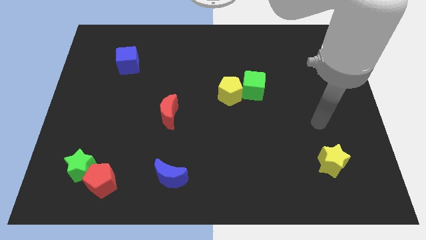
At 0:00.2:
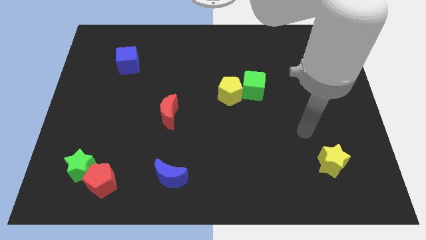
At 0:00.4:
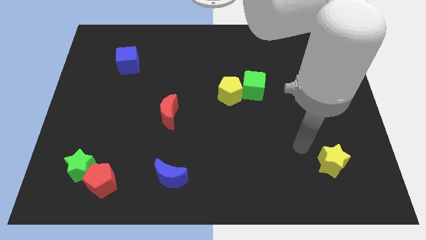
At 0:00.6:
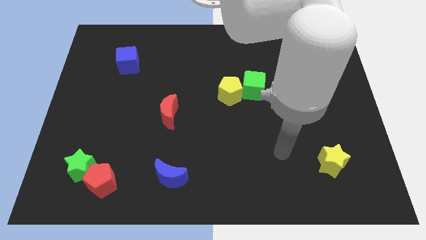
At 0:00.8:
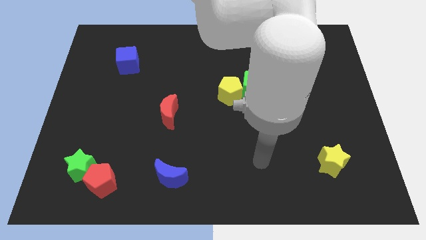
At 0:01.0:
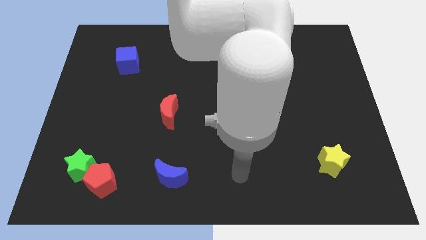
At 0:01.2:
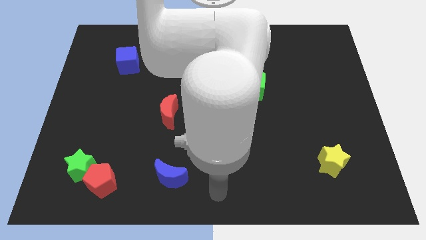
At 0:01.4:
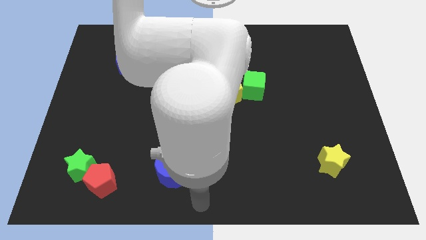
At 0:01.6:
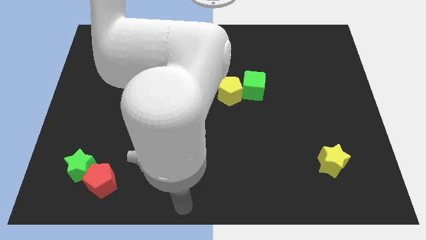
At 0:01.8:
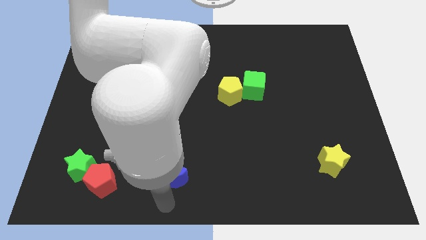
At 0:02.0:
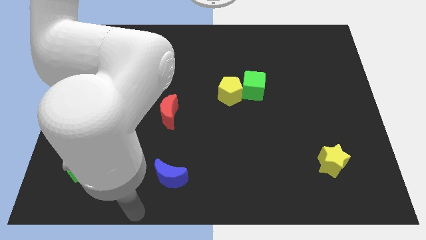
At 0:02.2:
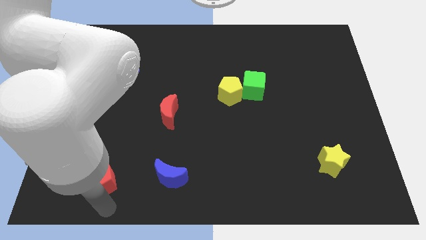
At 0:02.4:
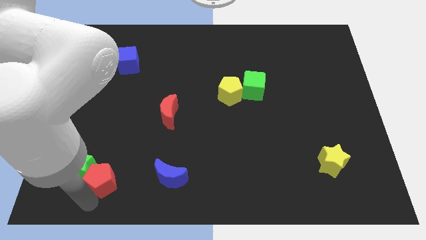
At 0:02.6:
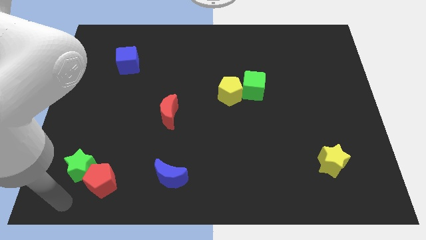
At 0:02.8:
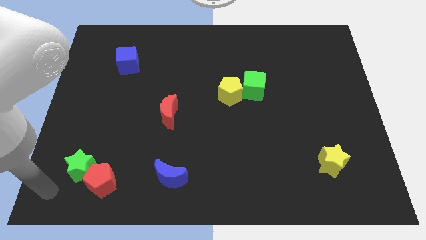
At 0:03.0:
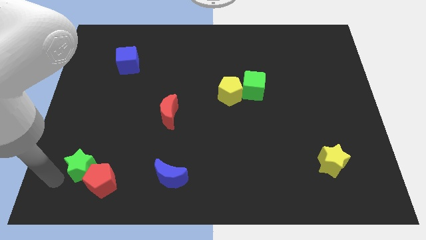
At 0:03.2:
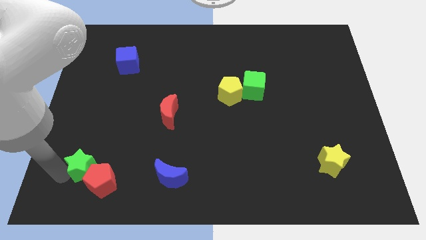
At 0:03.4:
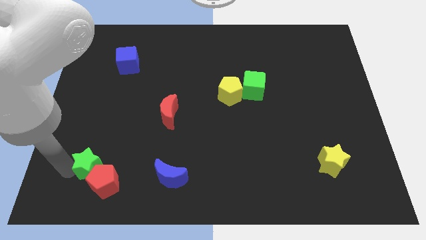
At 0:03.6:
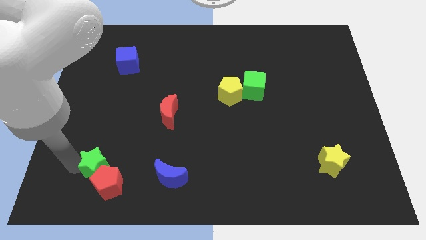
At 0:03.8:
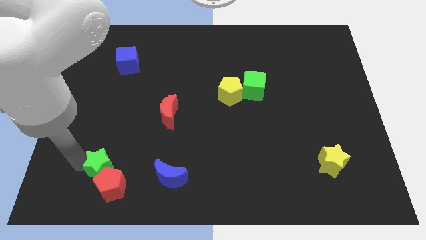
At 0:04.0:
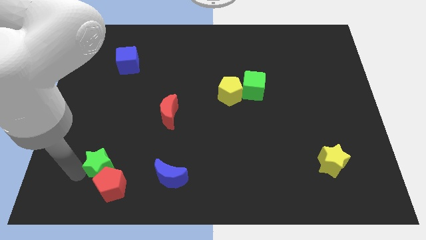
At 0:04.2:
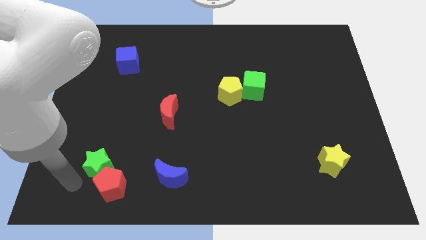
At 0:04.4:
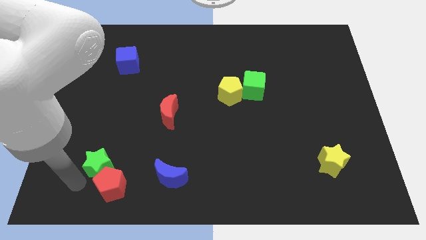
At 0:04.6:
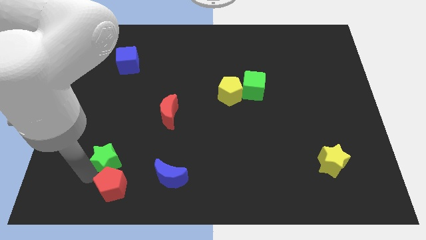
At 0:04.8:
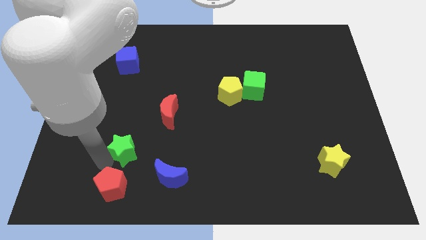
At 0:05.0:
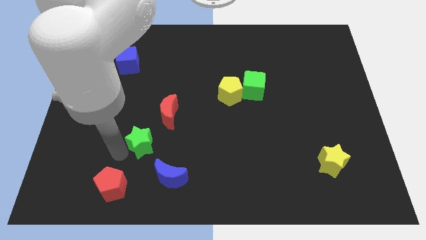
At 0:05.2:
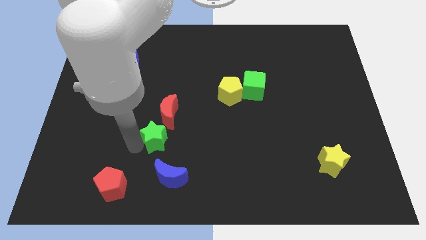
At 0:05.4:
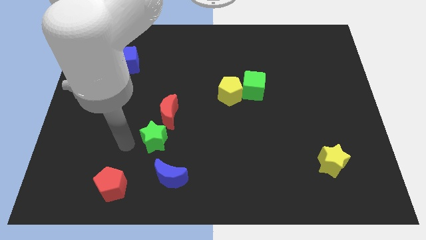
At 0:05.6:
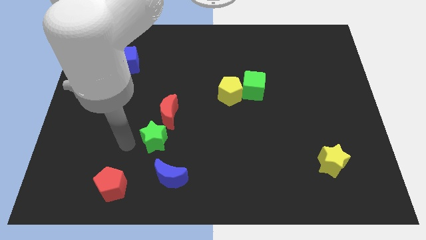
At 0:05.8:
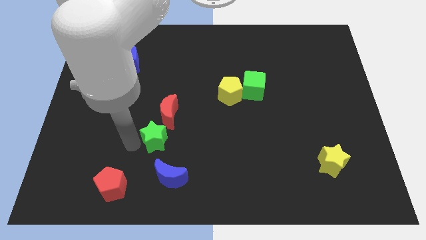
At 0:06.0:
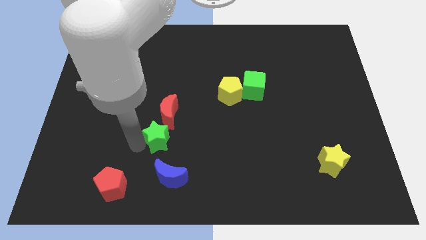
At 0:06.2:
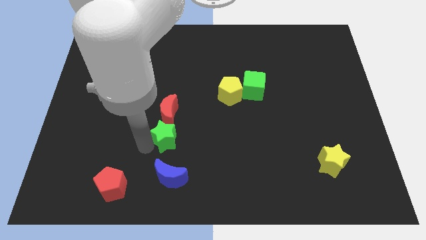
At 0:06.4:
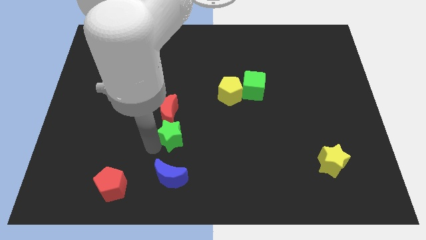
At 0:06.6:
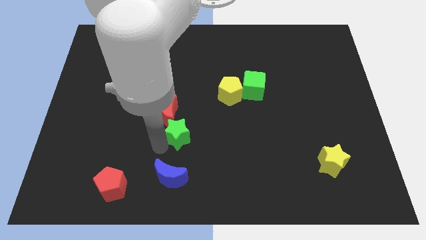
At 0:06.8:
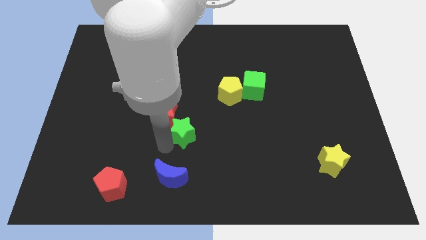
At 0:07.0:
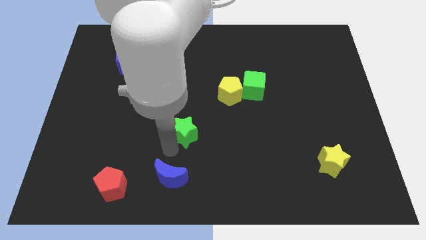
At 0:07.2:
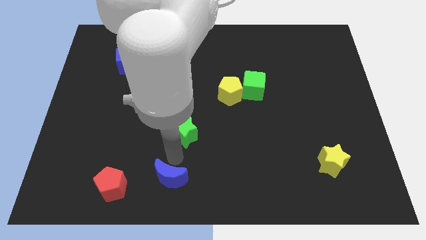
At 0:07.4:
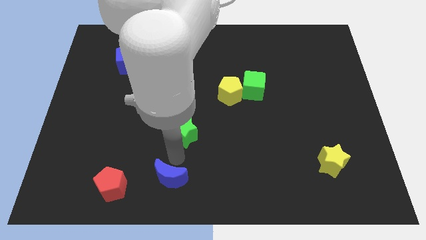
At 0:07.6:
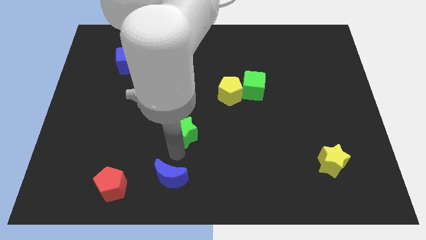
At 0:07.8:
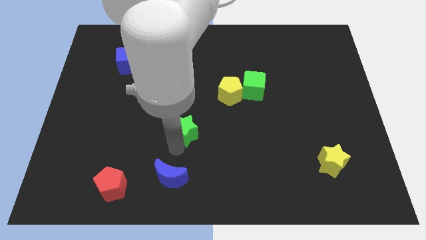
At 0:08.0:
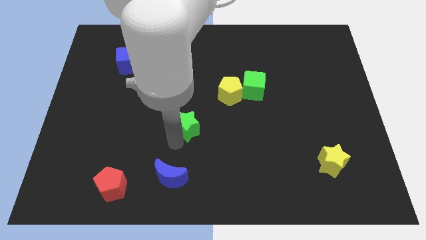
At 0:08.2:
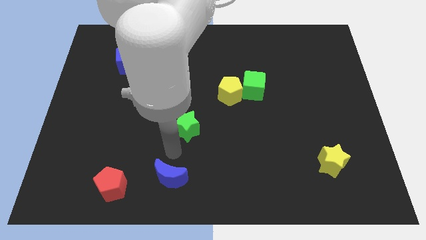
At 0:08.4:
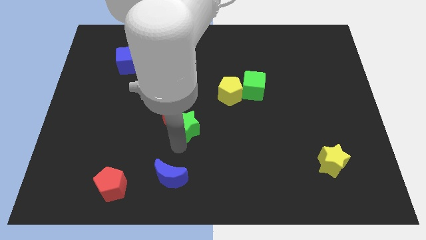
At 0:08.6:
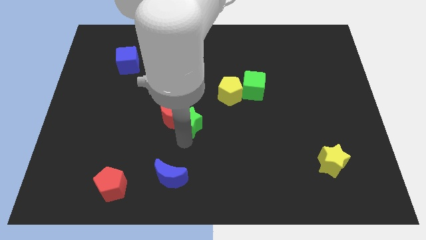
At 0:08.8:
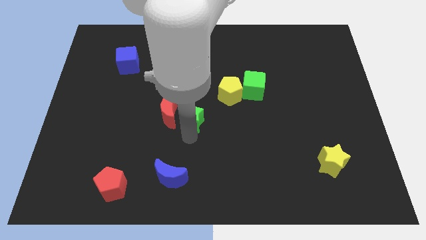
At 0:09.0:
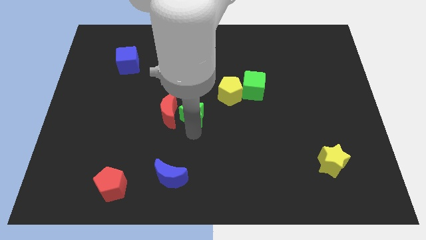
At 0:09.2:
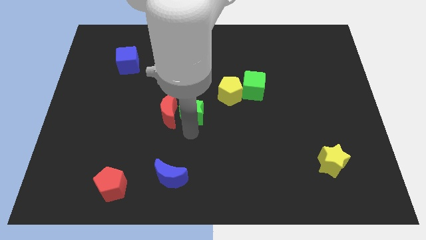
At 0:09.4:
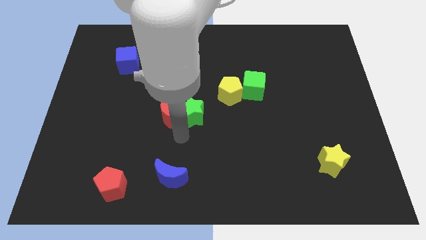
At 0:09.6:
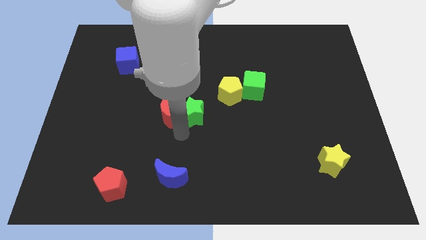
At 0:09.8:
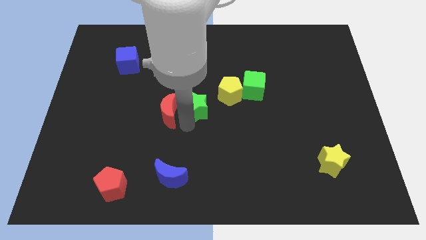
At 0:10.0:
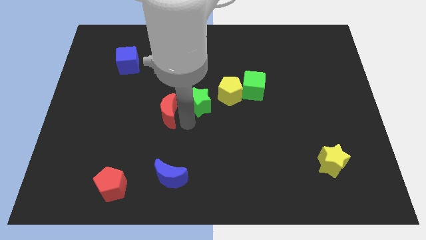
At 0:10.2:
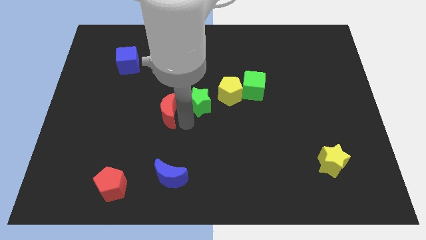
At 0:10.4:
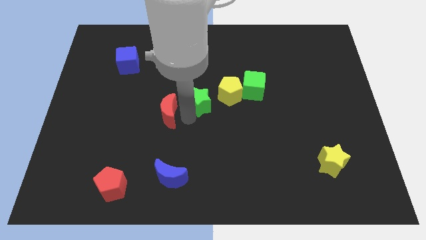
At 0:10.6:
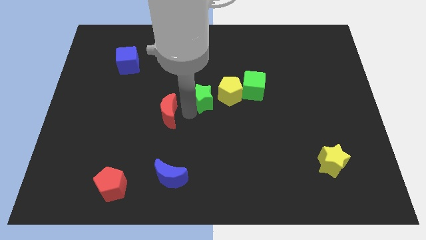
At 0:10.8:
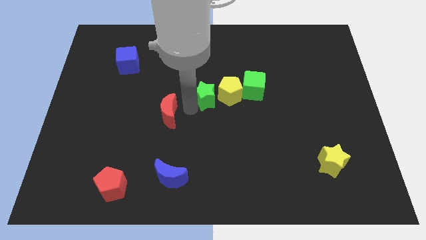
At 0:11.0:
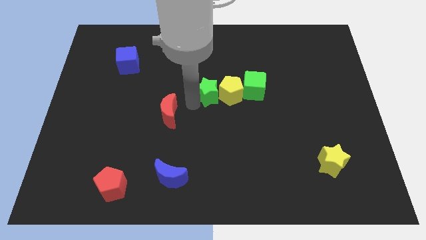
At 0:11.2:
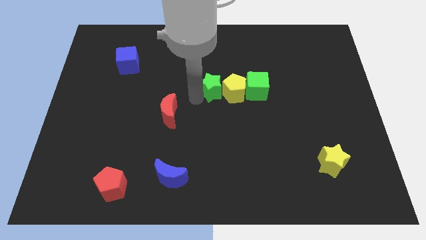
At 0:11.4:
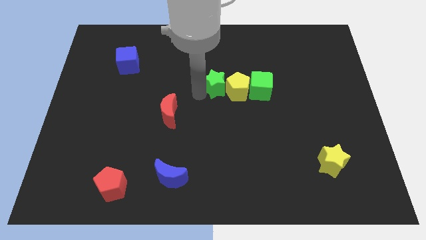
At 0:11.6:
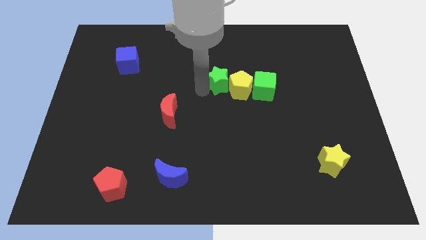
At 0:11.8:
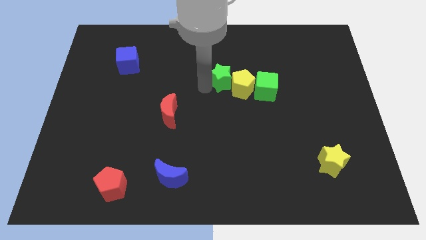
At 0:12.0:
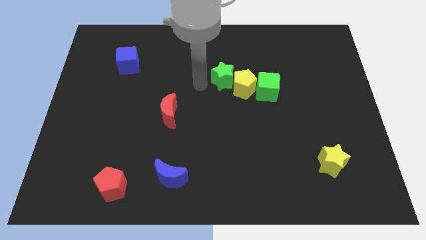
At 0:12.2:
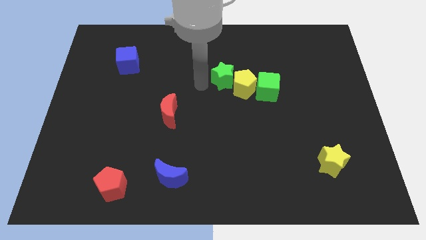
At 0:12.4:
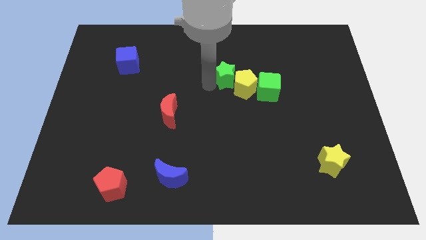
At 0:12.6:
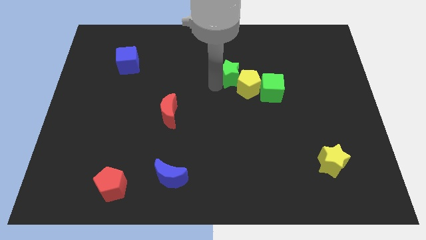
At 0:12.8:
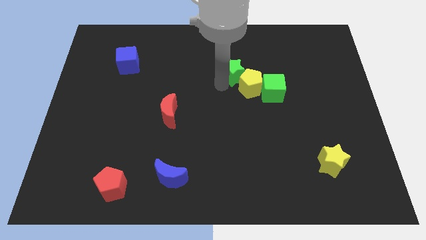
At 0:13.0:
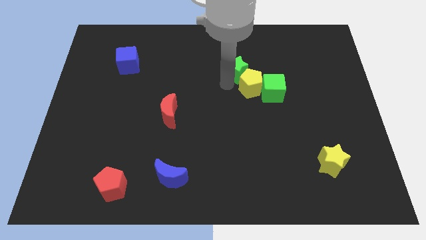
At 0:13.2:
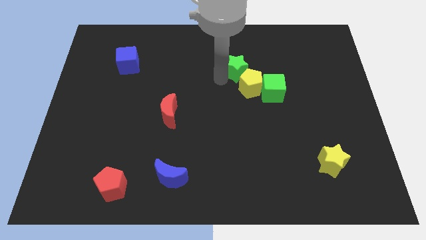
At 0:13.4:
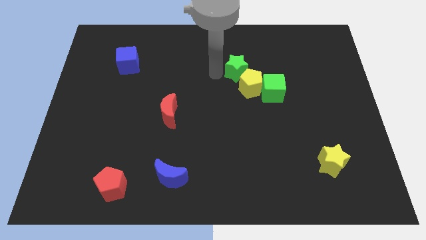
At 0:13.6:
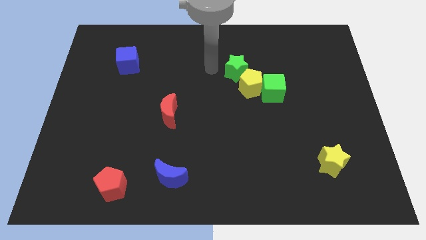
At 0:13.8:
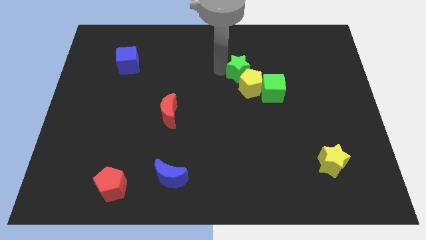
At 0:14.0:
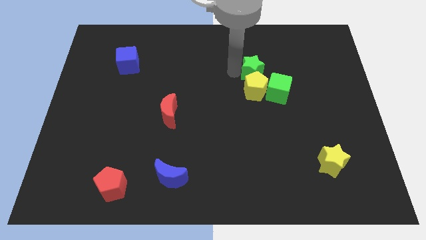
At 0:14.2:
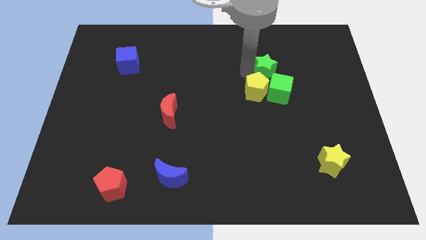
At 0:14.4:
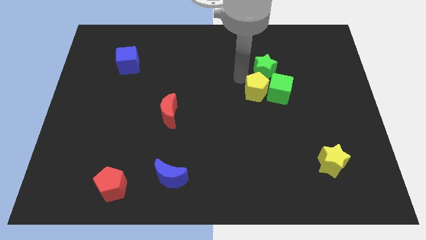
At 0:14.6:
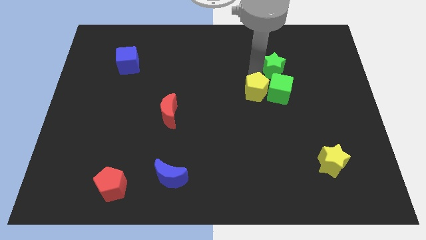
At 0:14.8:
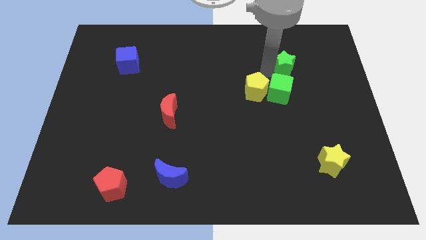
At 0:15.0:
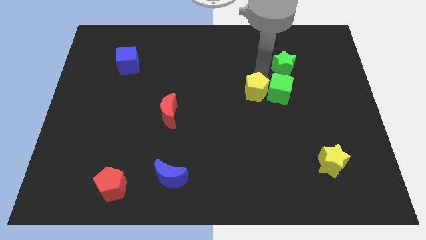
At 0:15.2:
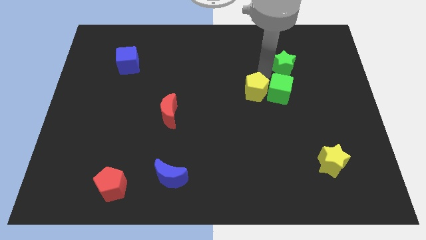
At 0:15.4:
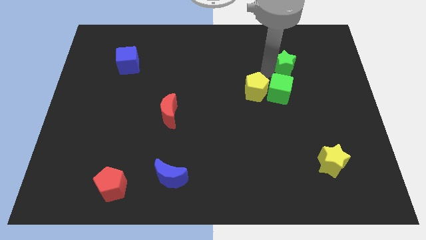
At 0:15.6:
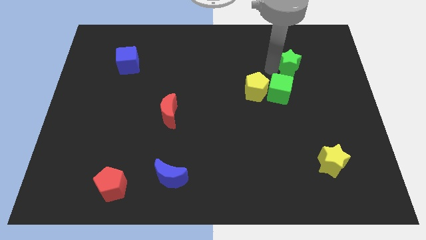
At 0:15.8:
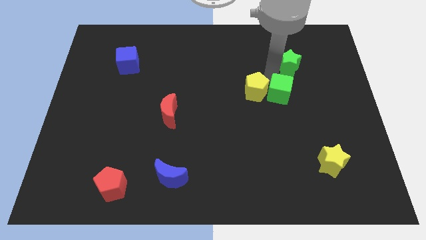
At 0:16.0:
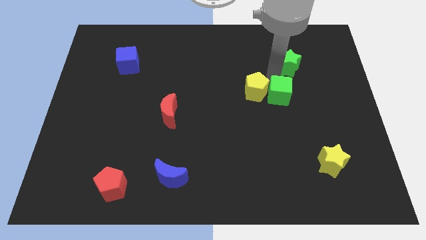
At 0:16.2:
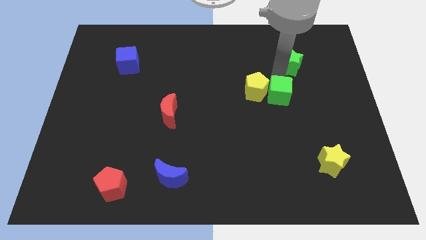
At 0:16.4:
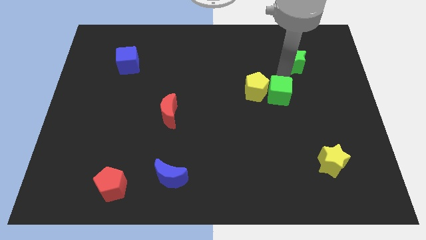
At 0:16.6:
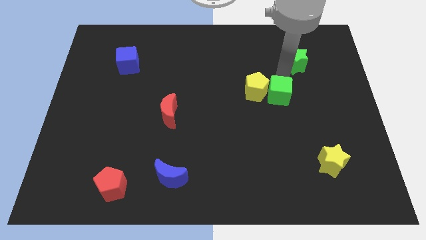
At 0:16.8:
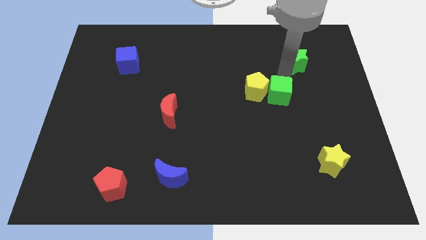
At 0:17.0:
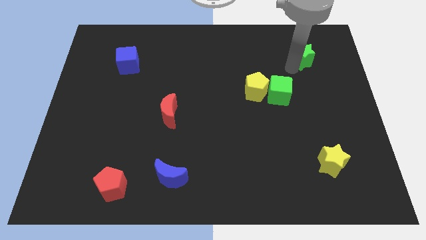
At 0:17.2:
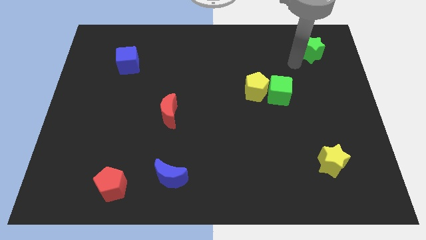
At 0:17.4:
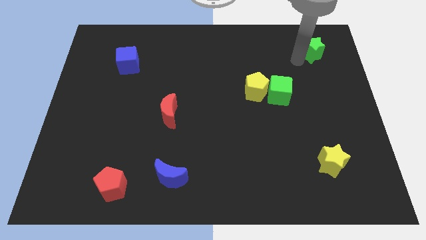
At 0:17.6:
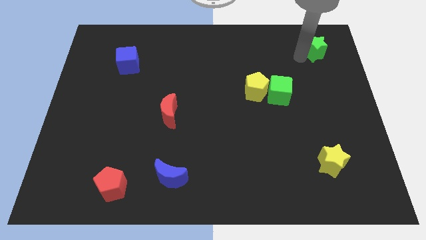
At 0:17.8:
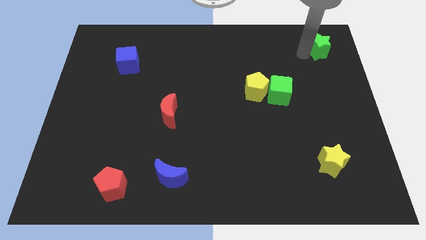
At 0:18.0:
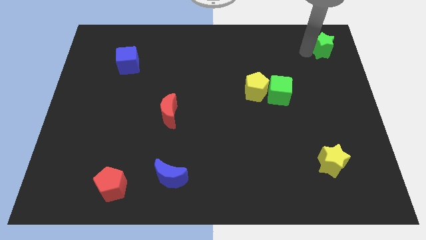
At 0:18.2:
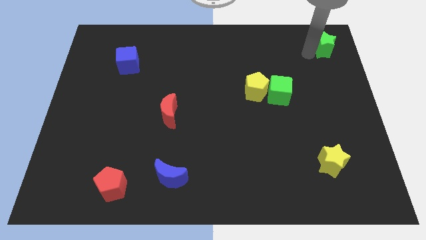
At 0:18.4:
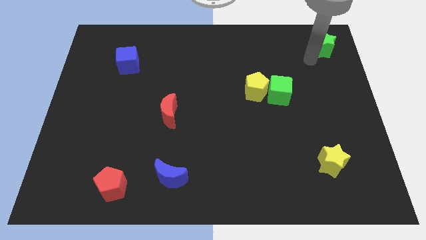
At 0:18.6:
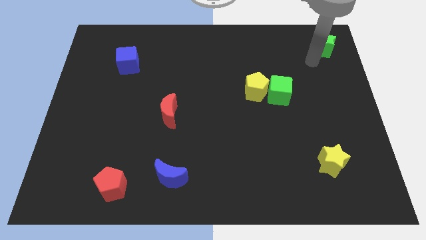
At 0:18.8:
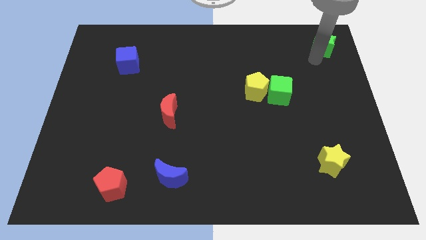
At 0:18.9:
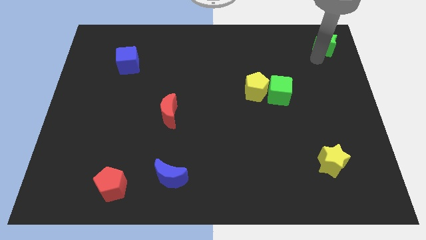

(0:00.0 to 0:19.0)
put the green star to the top right
